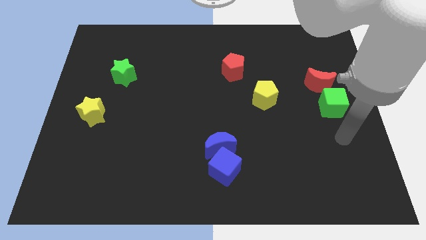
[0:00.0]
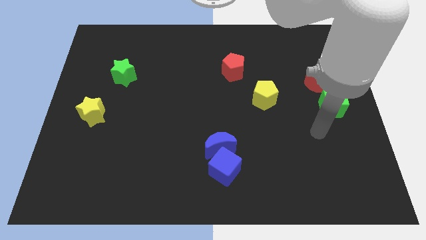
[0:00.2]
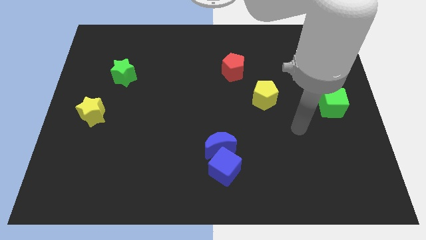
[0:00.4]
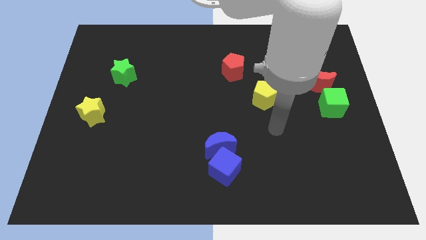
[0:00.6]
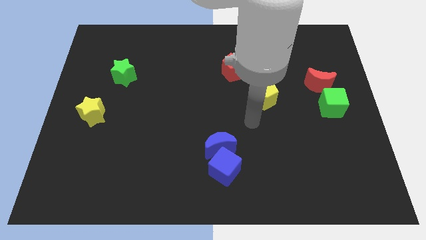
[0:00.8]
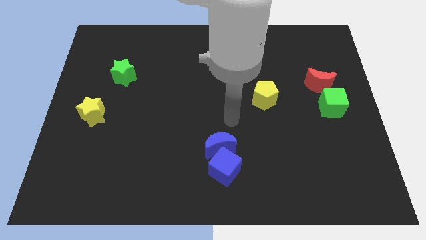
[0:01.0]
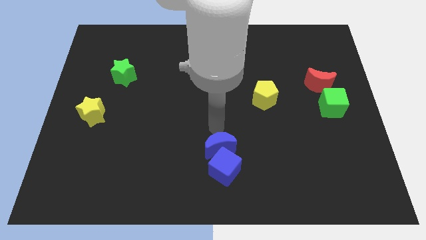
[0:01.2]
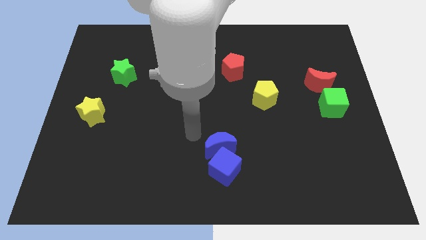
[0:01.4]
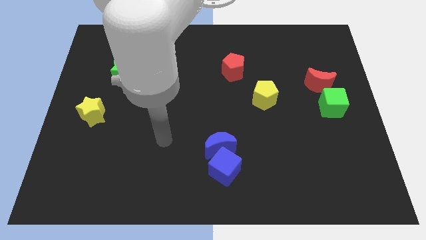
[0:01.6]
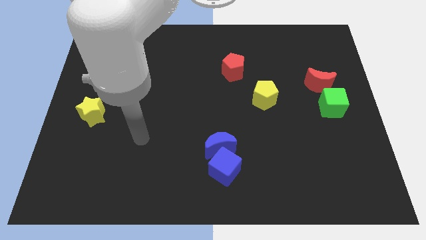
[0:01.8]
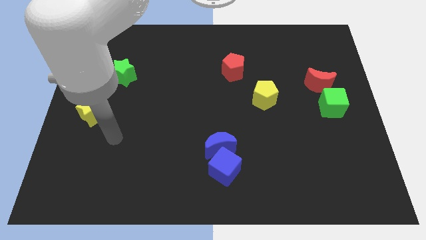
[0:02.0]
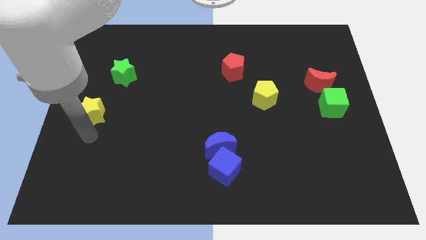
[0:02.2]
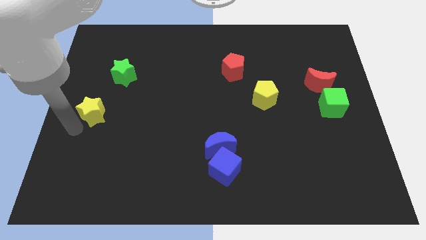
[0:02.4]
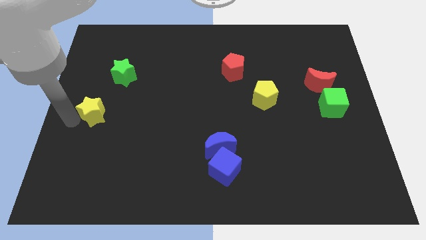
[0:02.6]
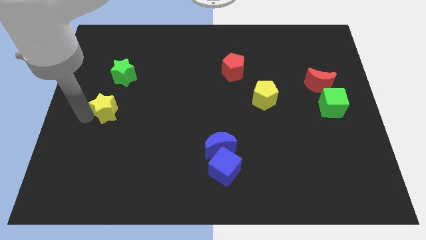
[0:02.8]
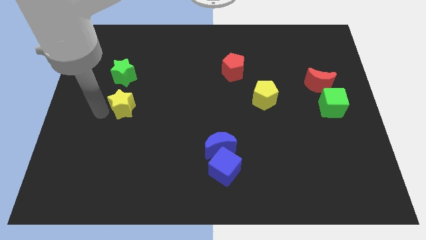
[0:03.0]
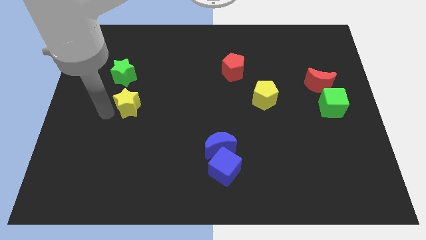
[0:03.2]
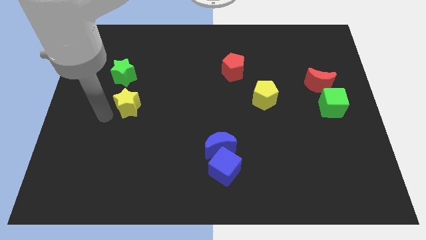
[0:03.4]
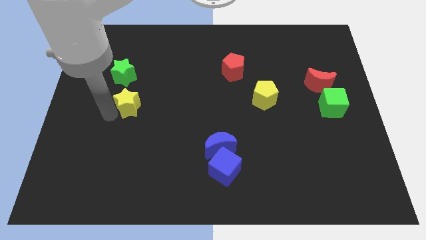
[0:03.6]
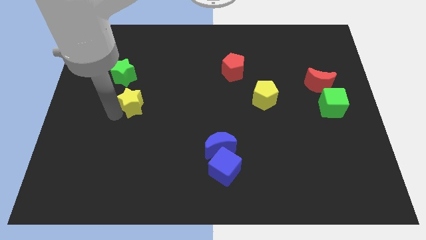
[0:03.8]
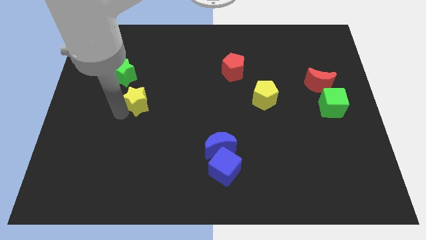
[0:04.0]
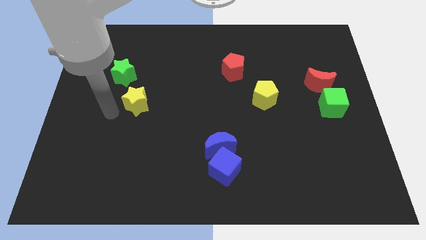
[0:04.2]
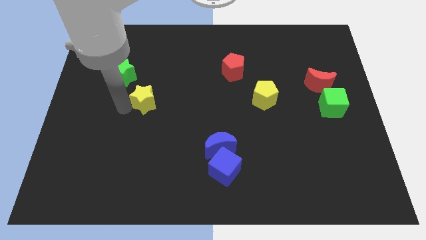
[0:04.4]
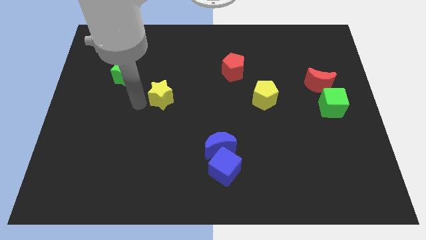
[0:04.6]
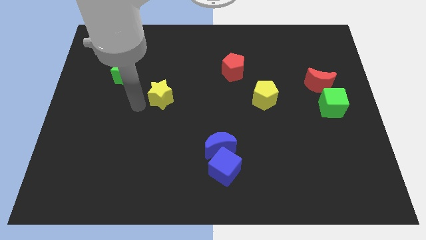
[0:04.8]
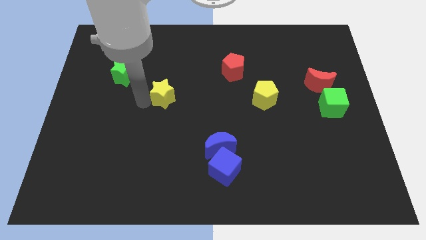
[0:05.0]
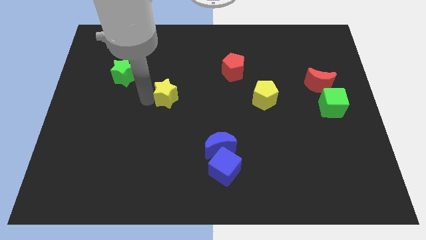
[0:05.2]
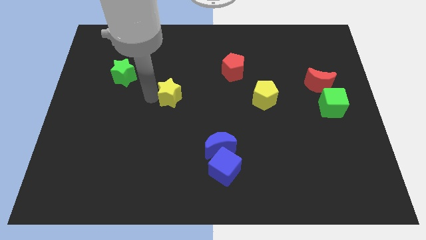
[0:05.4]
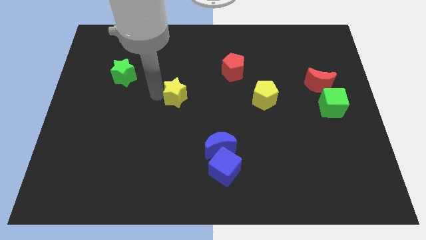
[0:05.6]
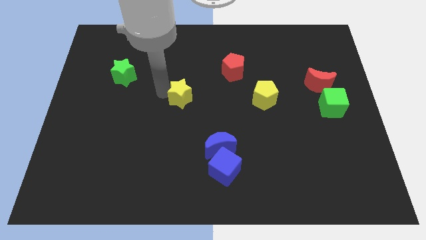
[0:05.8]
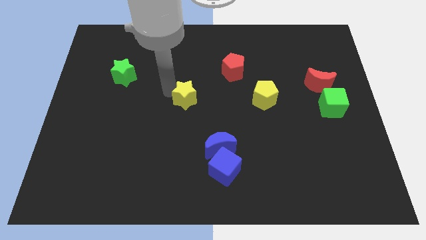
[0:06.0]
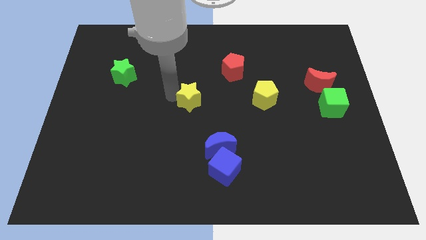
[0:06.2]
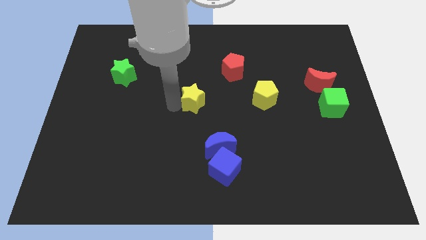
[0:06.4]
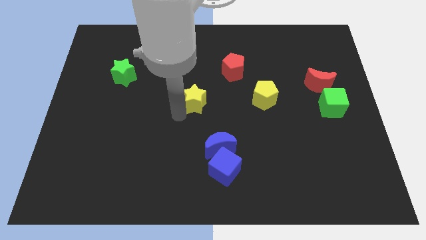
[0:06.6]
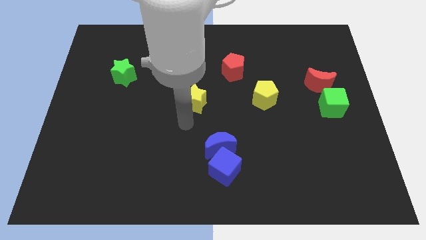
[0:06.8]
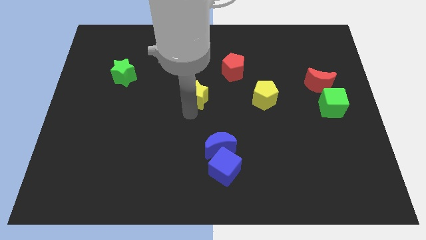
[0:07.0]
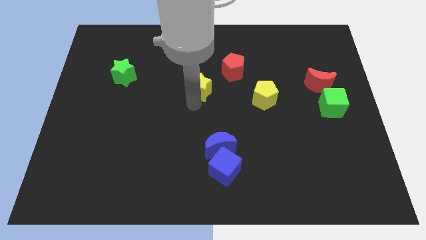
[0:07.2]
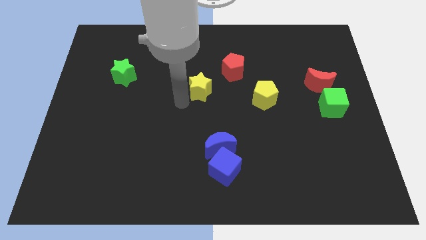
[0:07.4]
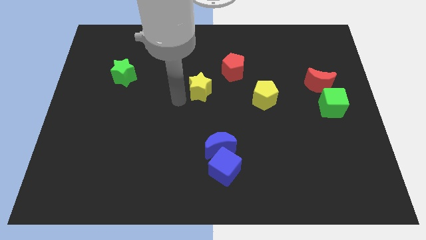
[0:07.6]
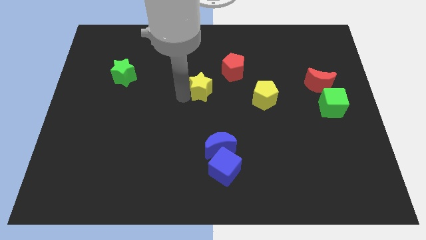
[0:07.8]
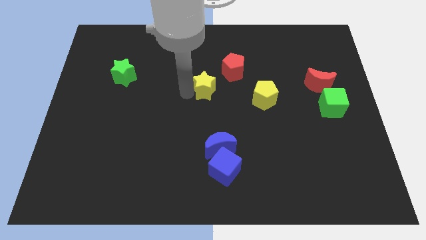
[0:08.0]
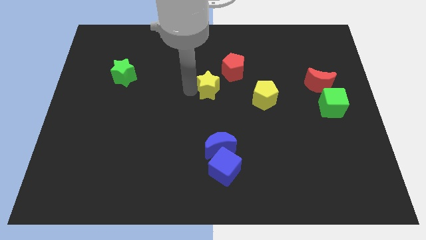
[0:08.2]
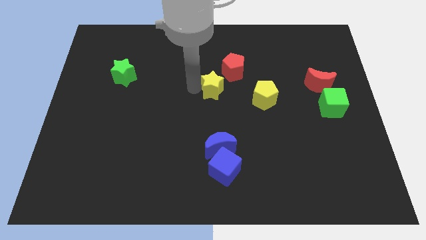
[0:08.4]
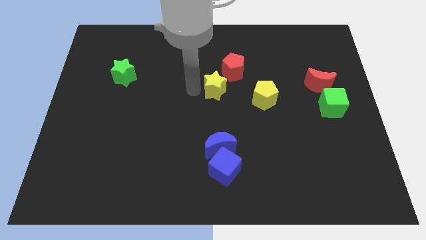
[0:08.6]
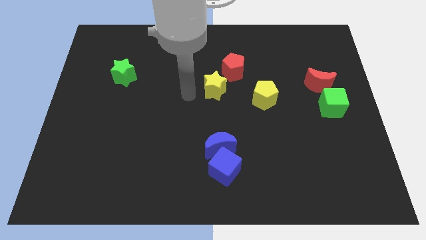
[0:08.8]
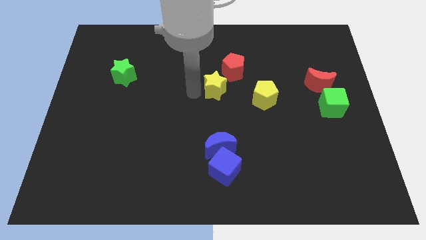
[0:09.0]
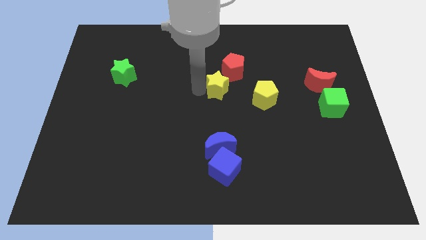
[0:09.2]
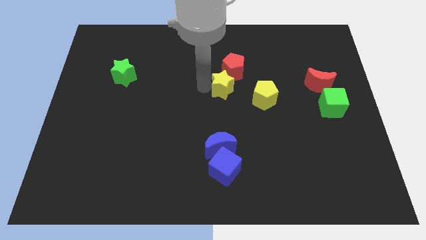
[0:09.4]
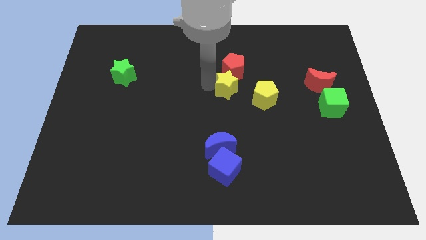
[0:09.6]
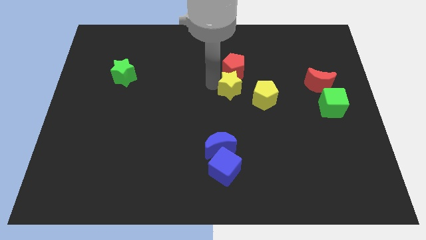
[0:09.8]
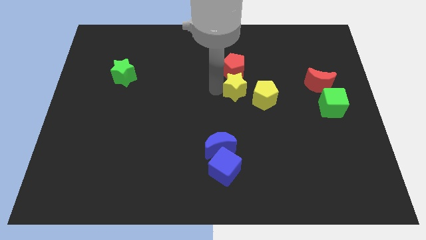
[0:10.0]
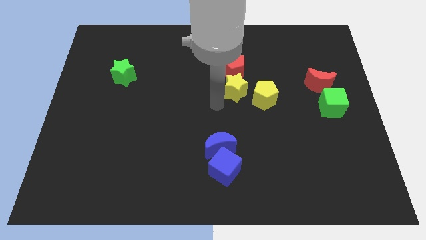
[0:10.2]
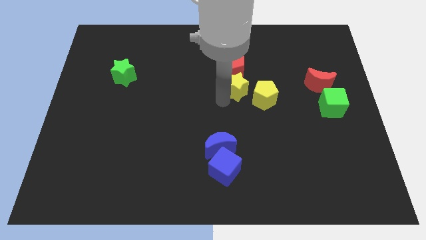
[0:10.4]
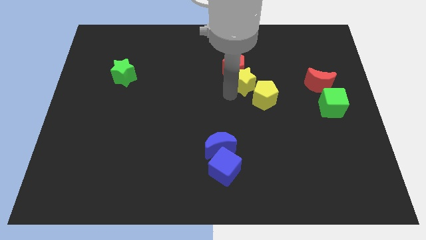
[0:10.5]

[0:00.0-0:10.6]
push the yellow star above the yellow pentagon

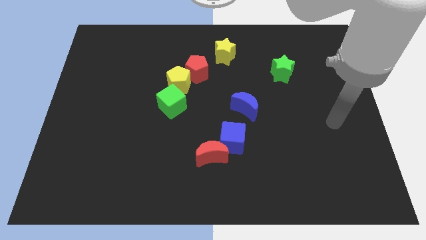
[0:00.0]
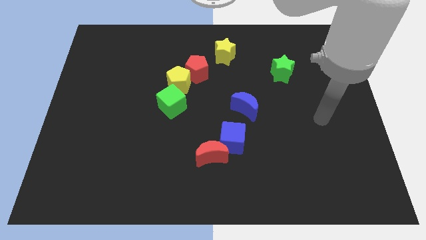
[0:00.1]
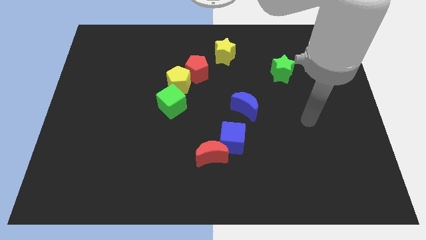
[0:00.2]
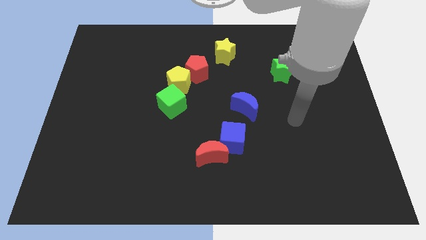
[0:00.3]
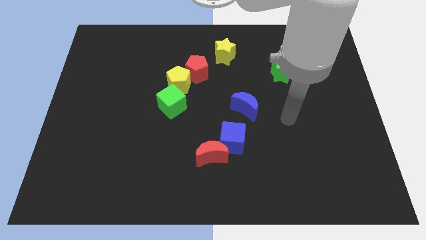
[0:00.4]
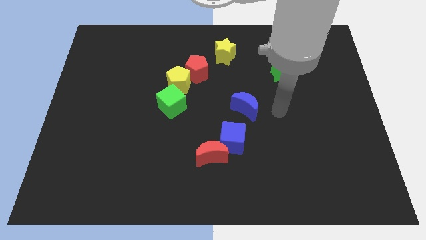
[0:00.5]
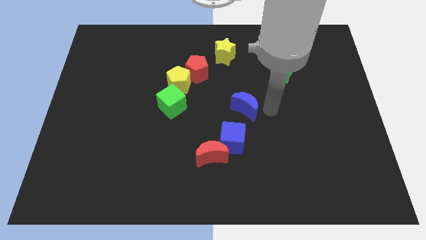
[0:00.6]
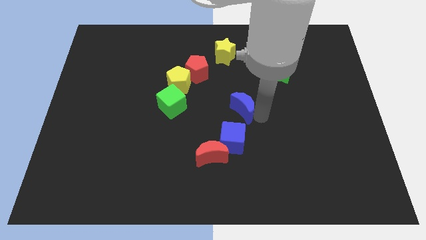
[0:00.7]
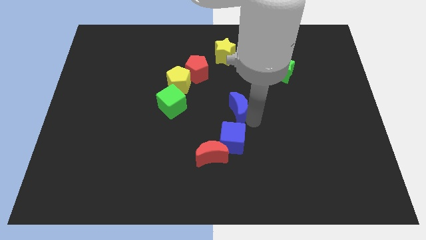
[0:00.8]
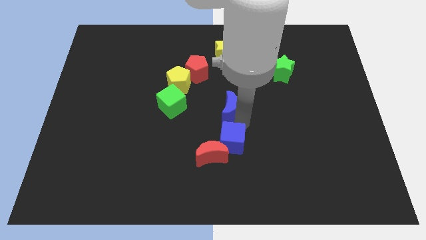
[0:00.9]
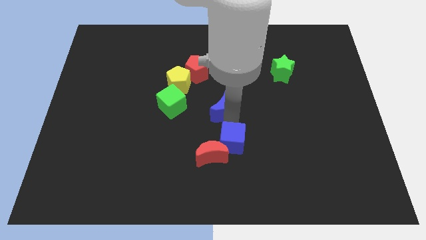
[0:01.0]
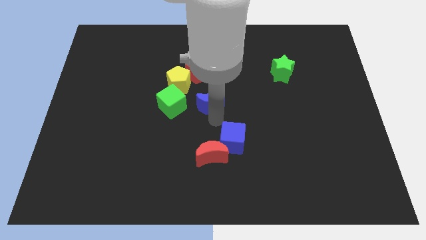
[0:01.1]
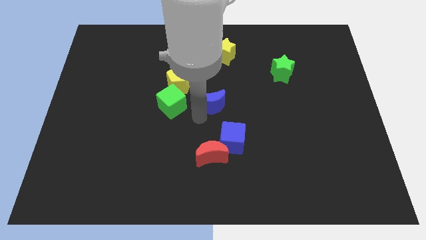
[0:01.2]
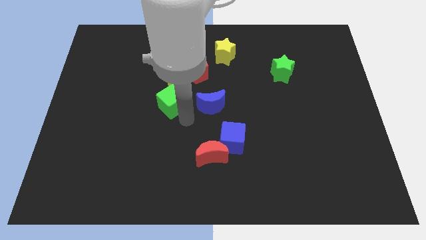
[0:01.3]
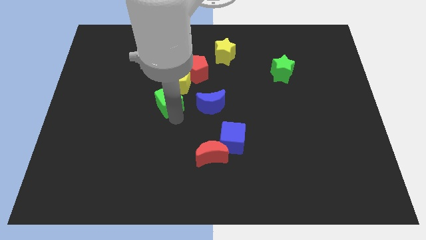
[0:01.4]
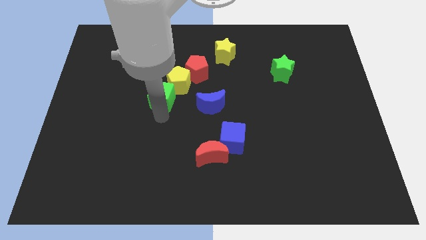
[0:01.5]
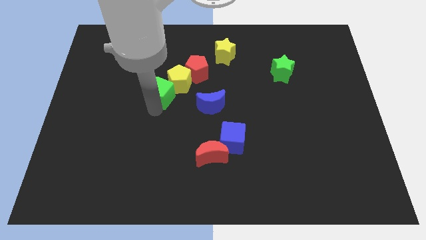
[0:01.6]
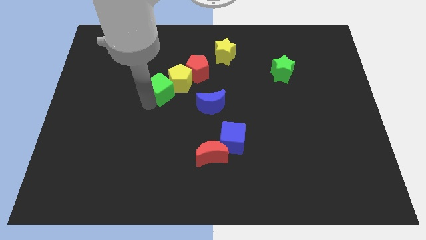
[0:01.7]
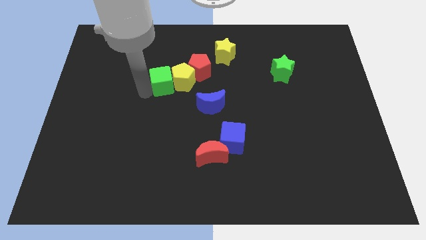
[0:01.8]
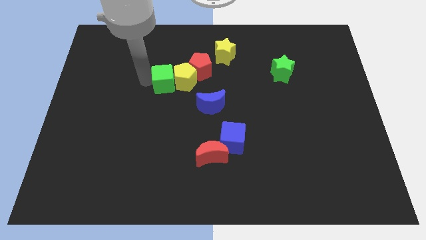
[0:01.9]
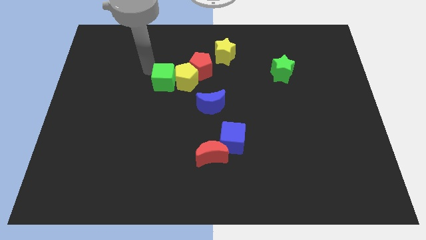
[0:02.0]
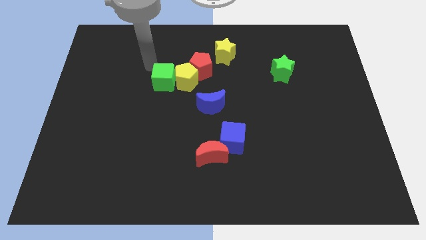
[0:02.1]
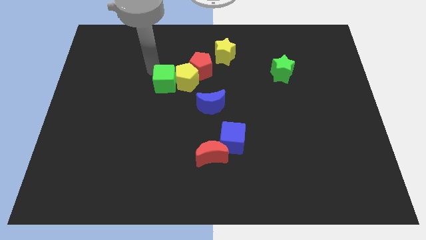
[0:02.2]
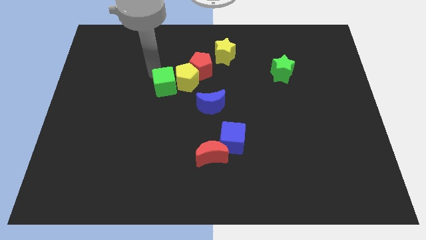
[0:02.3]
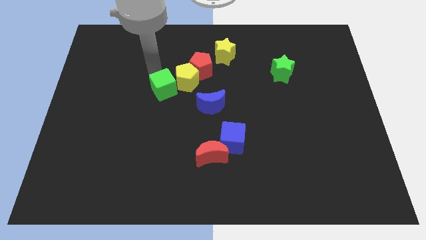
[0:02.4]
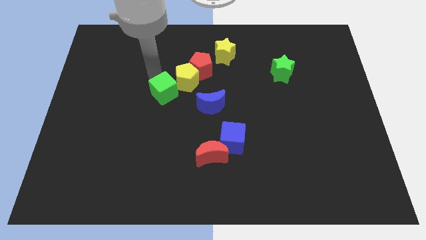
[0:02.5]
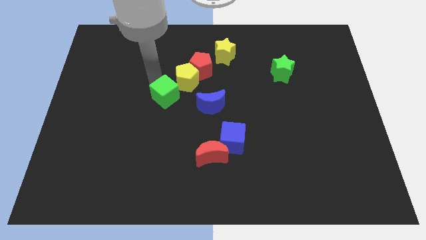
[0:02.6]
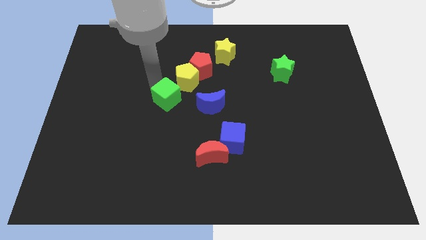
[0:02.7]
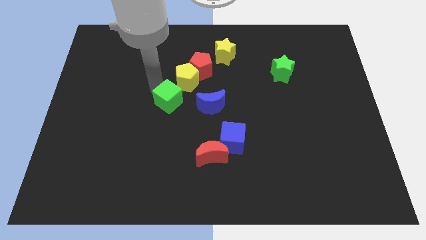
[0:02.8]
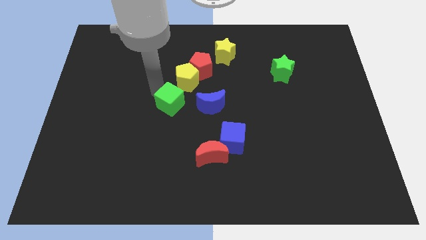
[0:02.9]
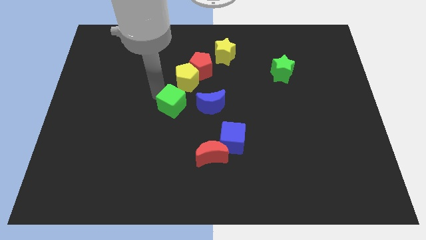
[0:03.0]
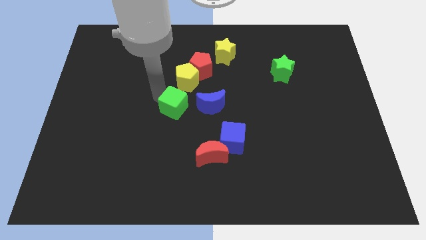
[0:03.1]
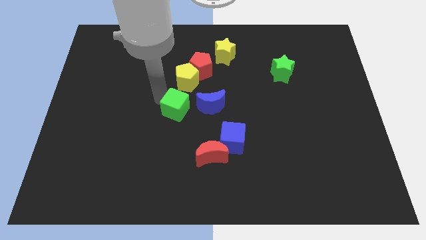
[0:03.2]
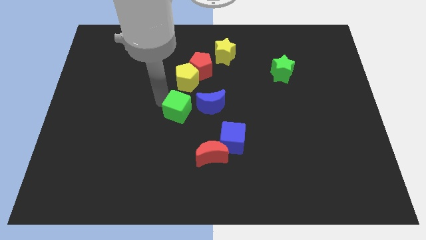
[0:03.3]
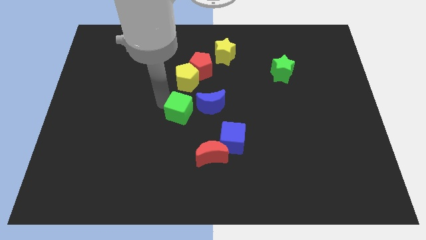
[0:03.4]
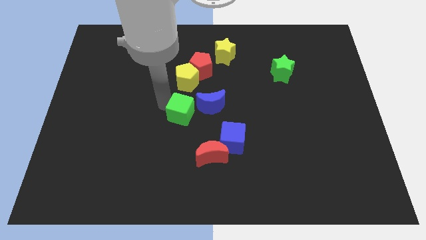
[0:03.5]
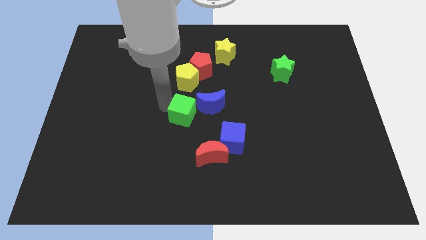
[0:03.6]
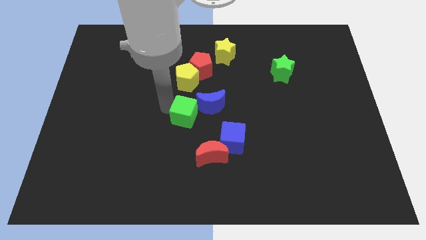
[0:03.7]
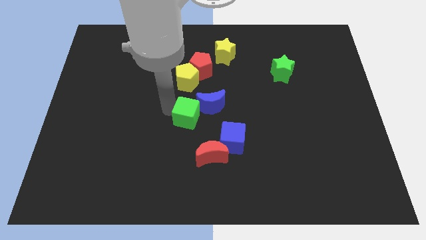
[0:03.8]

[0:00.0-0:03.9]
put the green cube to the top left of the blue cube
